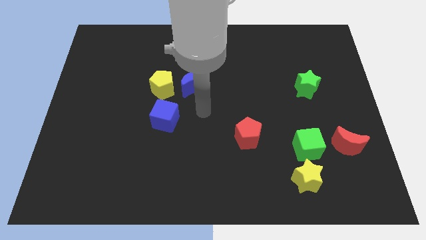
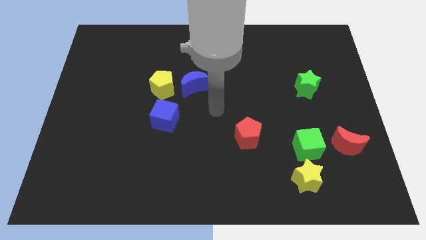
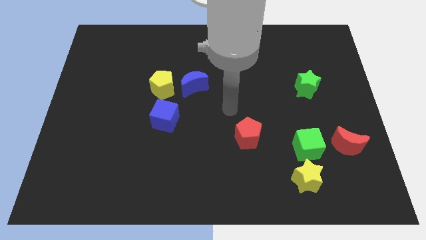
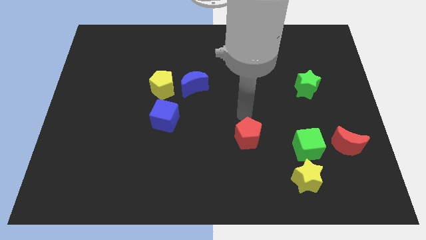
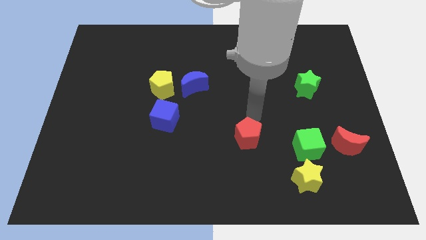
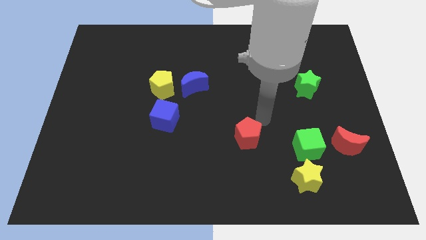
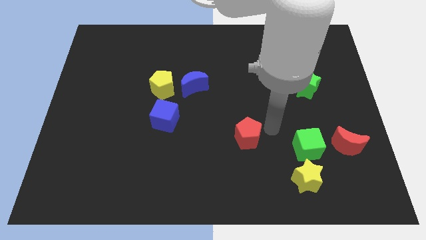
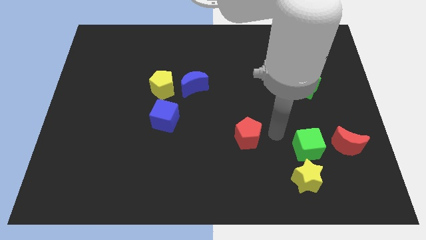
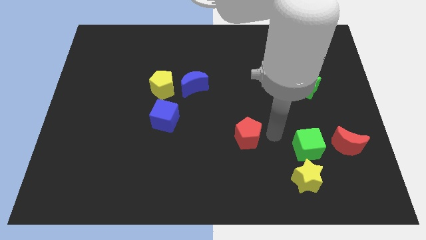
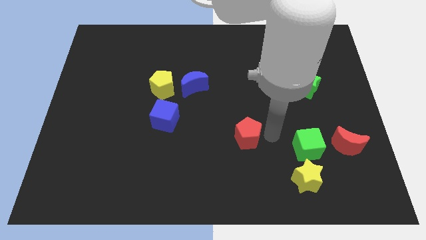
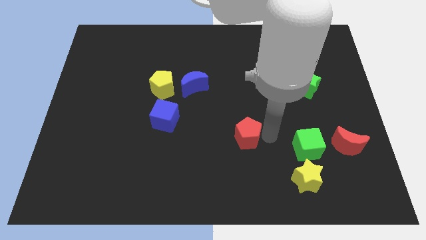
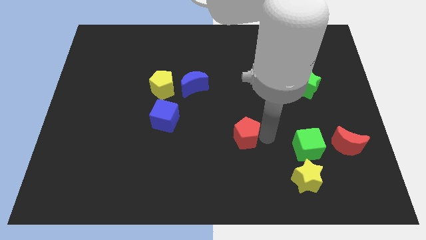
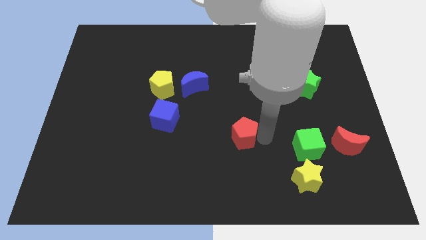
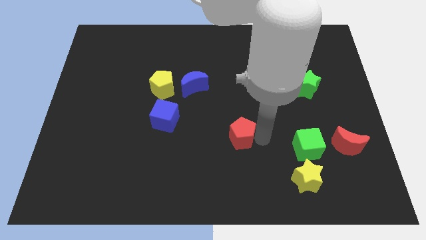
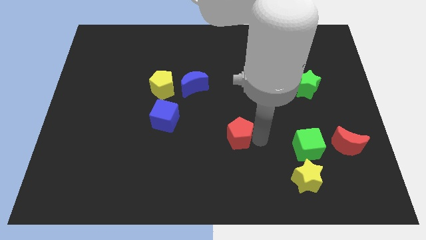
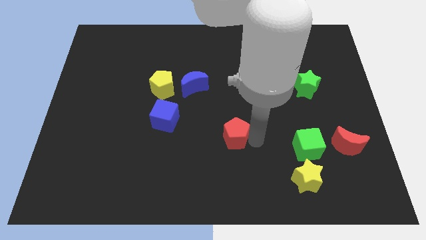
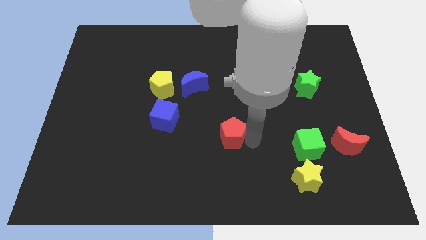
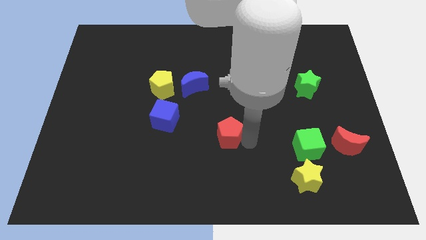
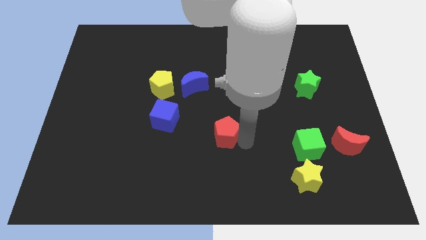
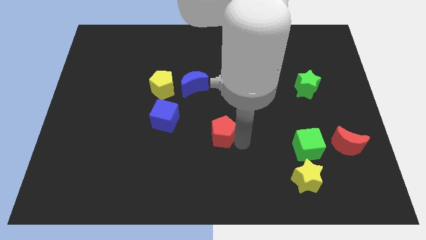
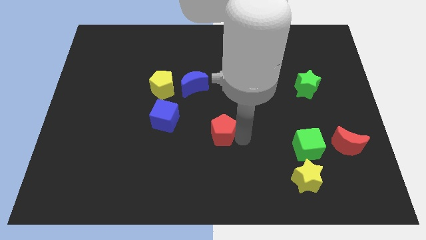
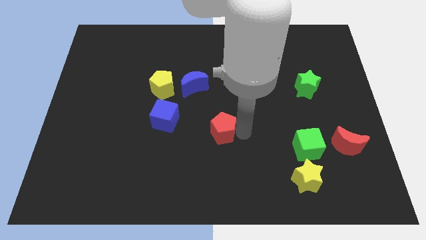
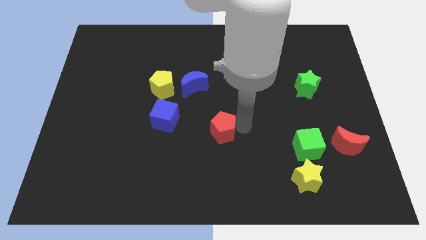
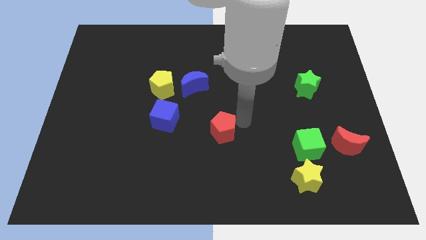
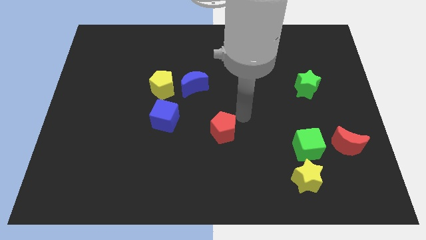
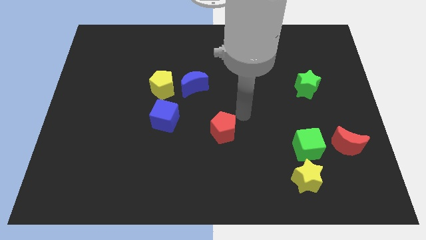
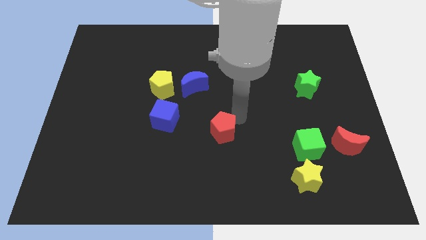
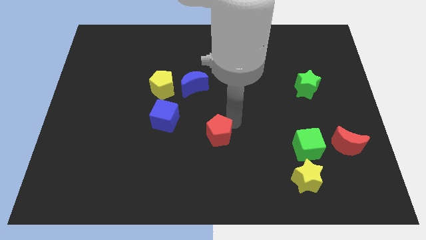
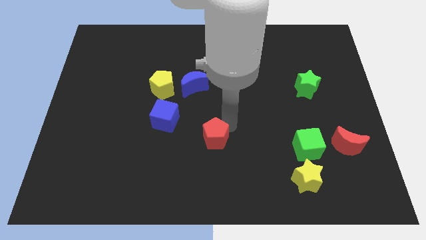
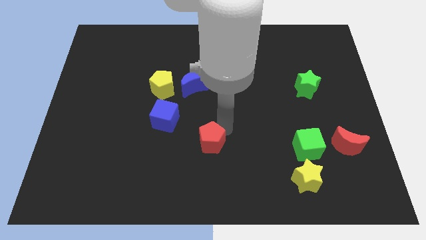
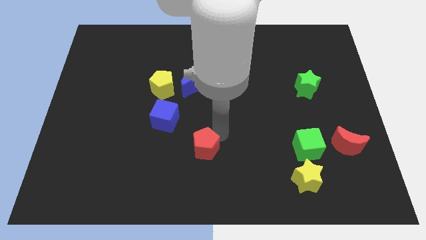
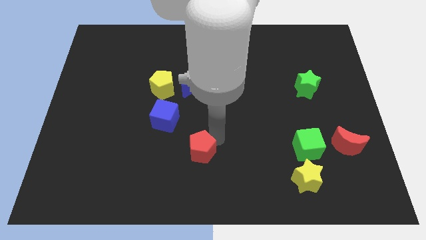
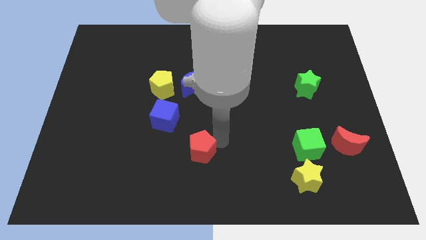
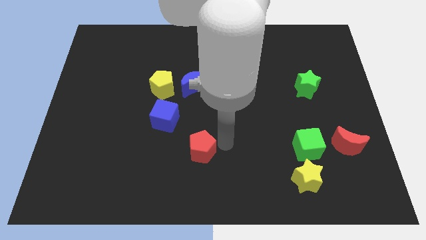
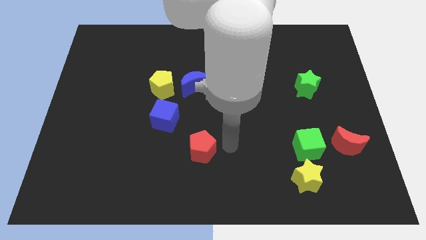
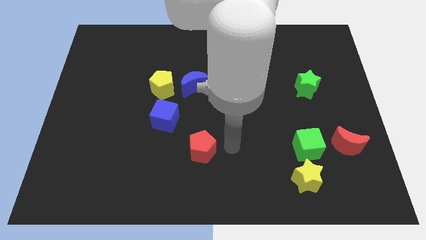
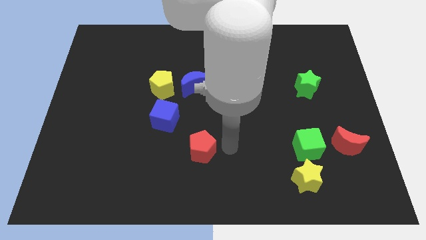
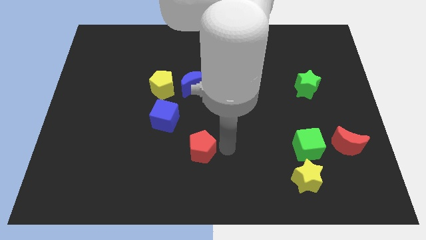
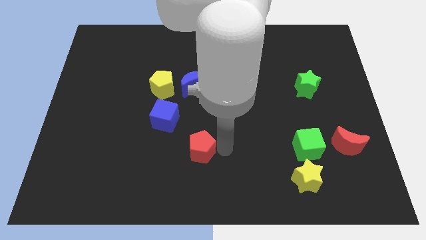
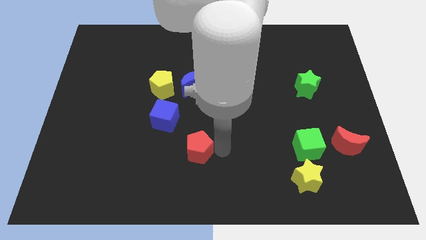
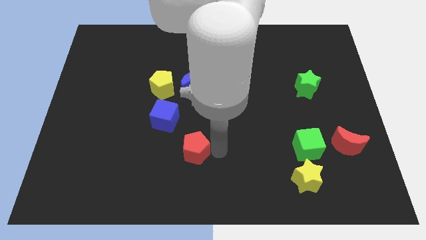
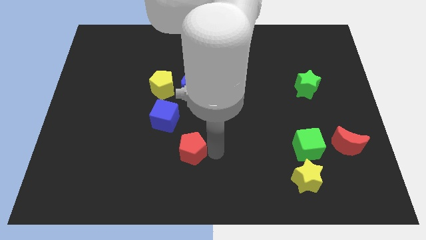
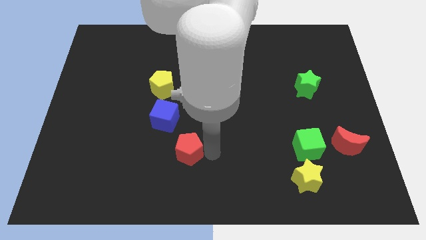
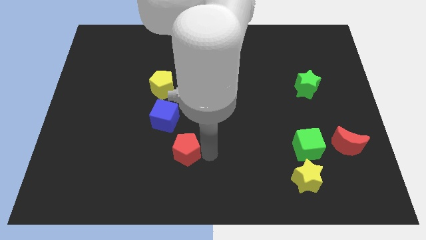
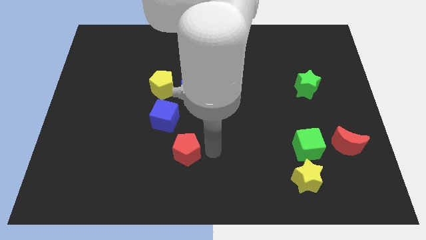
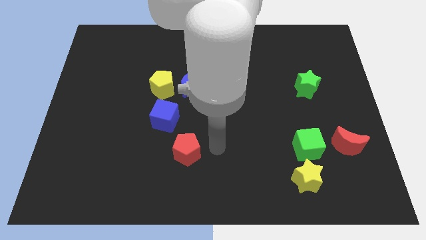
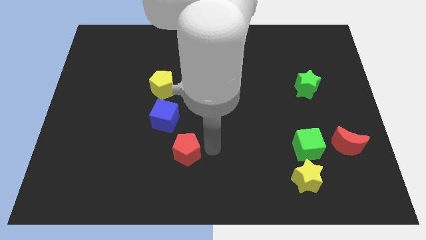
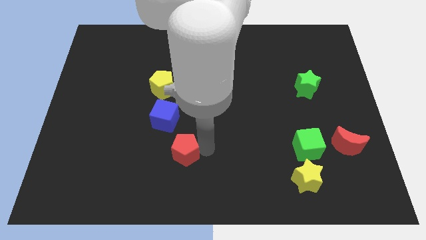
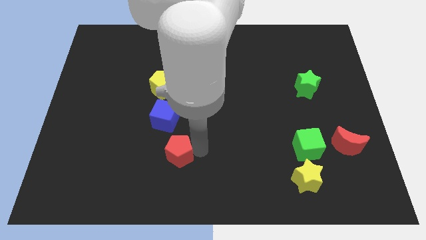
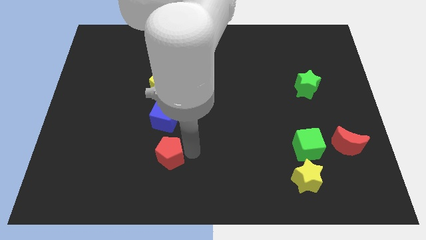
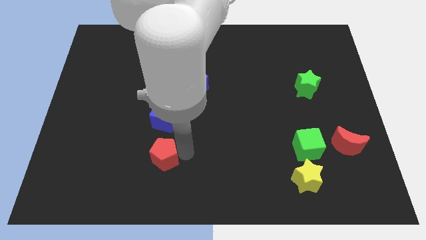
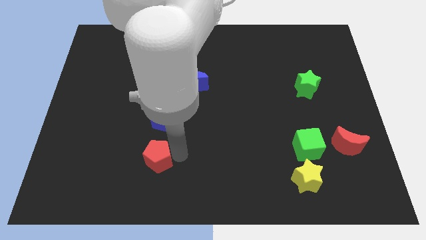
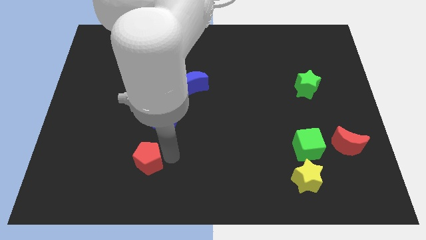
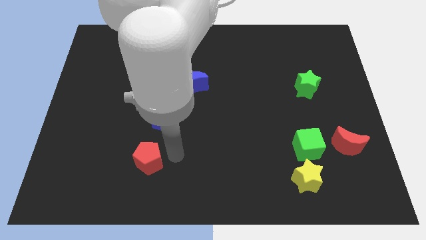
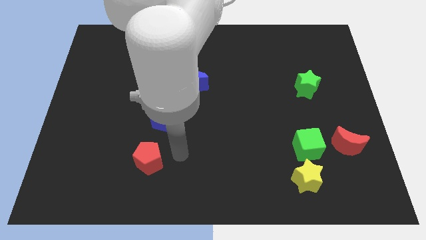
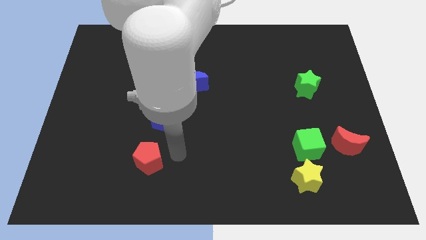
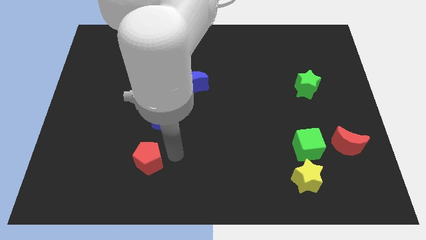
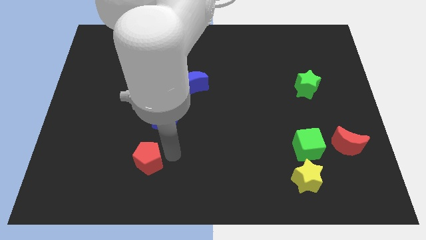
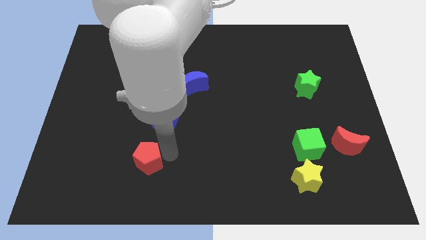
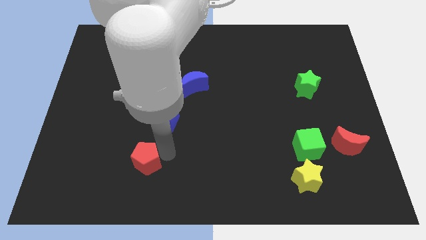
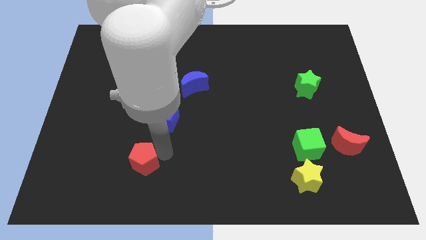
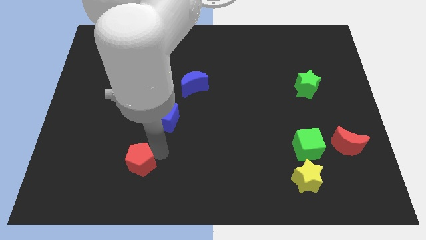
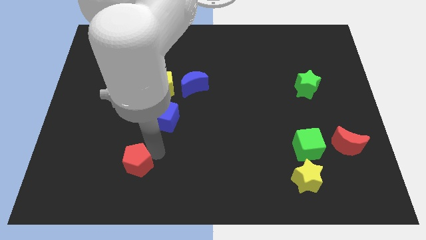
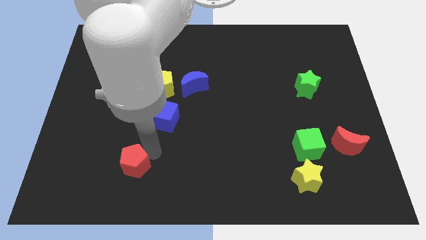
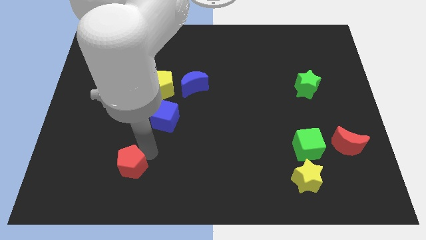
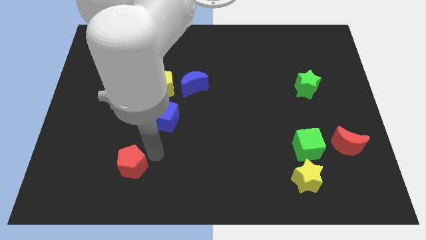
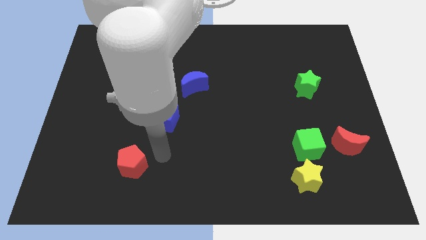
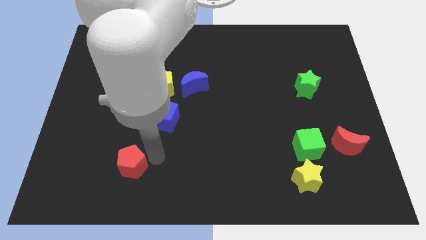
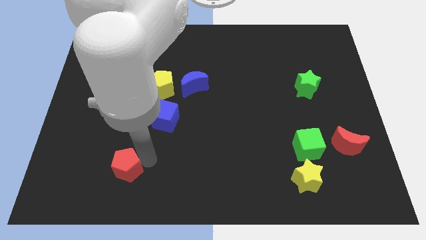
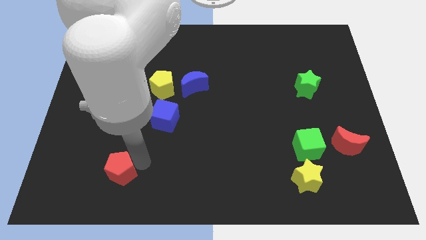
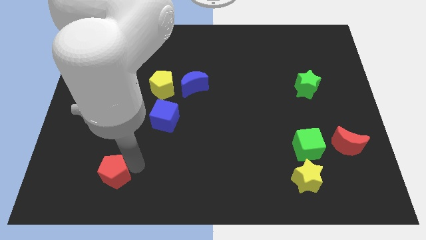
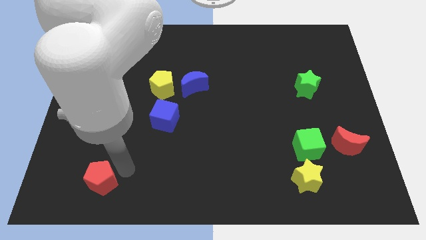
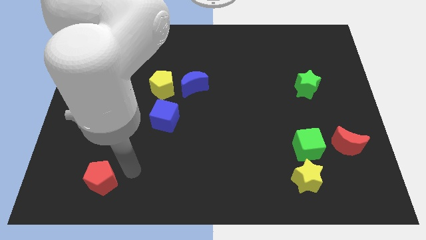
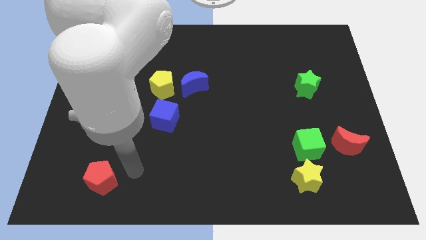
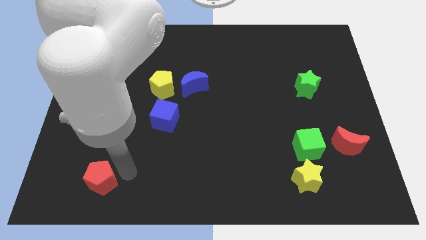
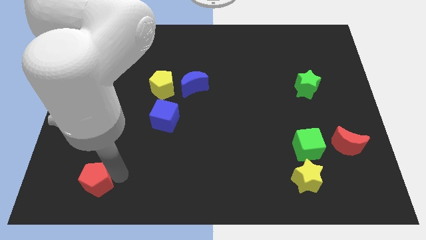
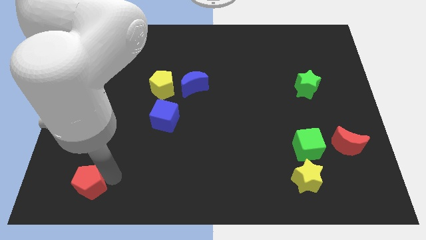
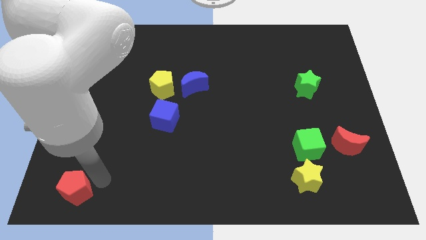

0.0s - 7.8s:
put the red pentagon to the bottom left
